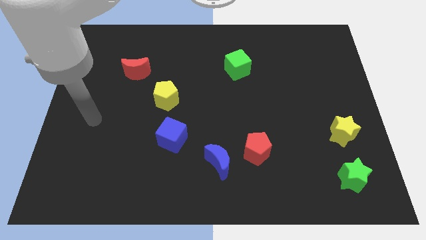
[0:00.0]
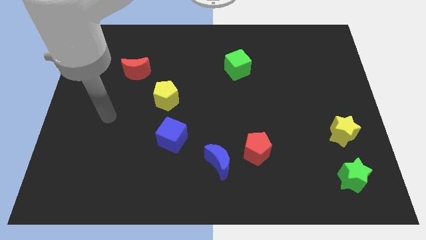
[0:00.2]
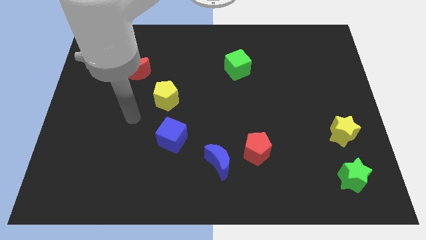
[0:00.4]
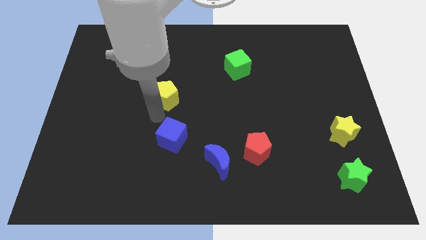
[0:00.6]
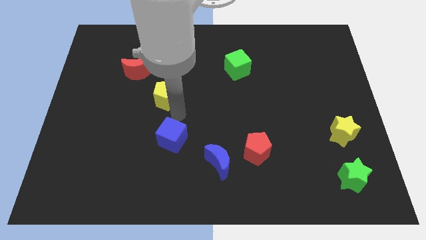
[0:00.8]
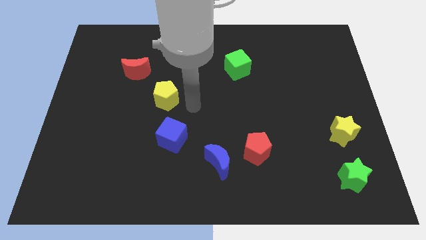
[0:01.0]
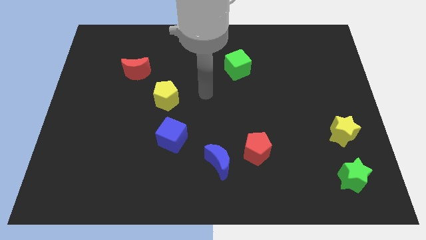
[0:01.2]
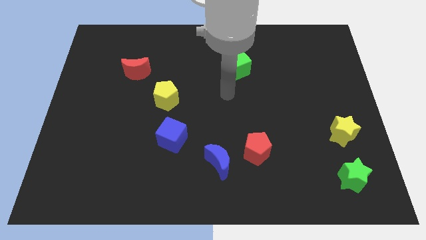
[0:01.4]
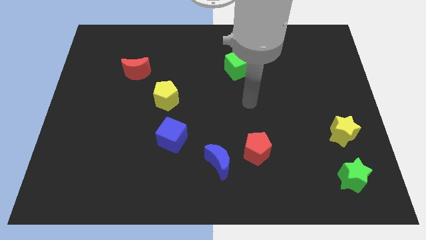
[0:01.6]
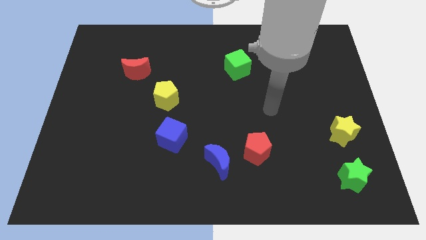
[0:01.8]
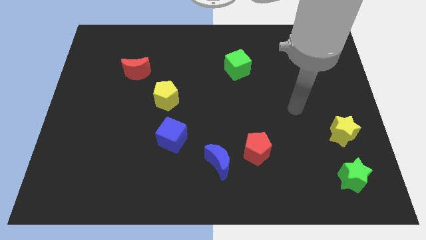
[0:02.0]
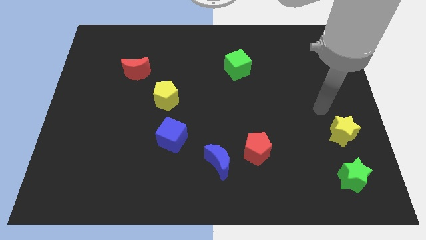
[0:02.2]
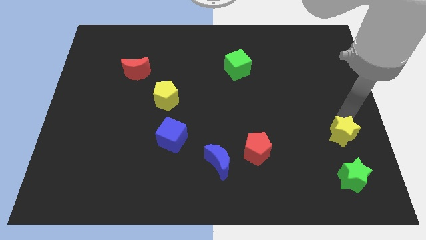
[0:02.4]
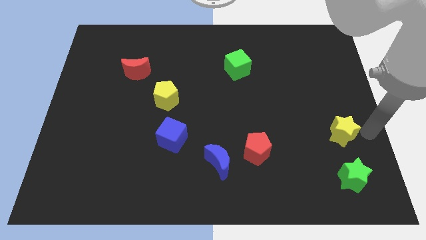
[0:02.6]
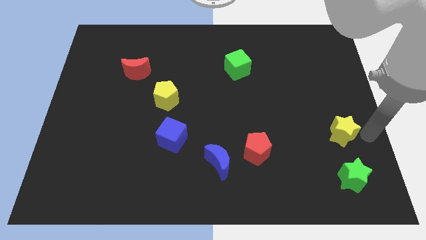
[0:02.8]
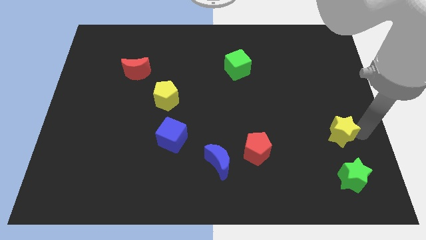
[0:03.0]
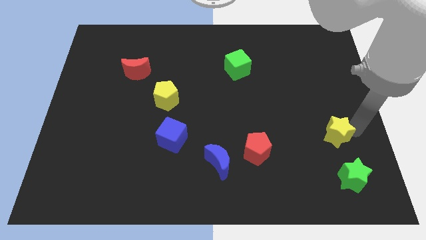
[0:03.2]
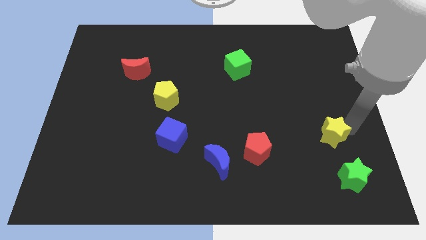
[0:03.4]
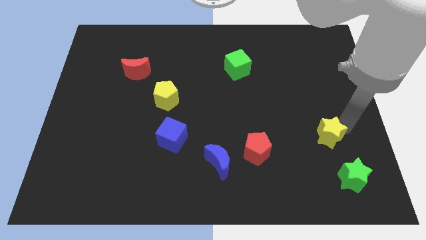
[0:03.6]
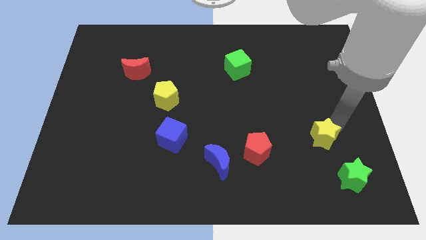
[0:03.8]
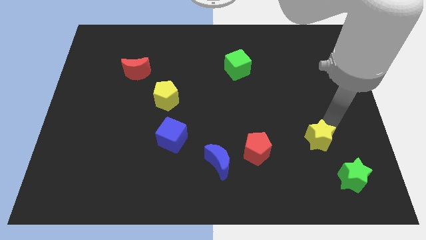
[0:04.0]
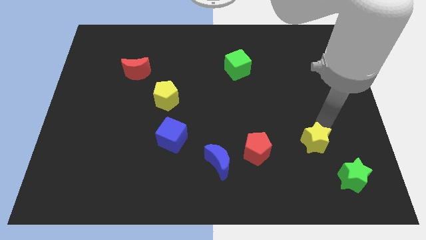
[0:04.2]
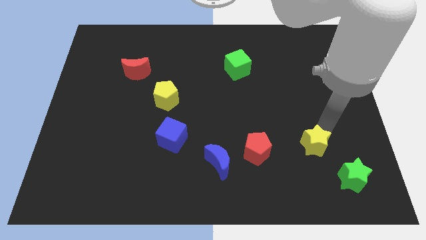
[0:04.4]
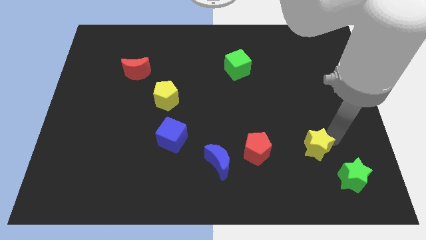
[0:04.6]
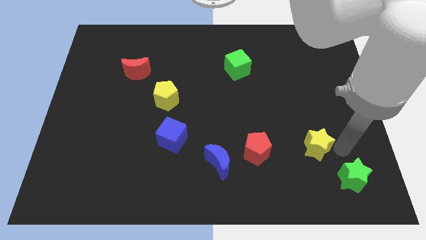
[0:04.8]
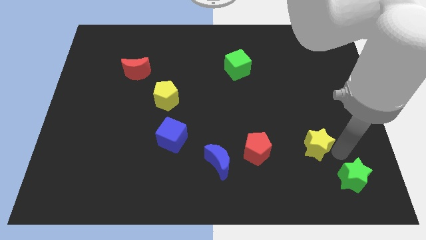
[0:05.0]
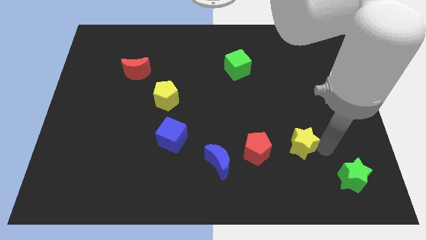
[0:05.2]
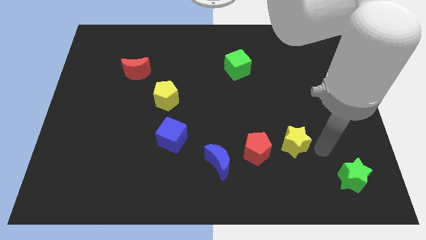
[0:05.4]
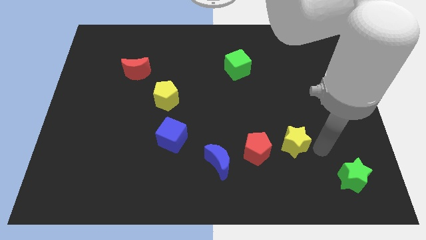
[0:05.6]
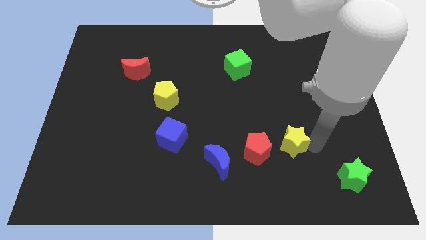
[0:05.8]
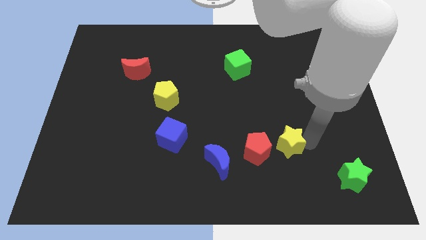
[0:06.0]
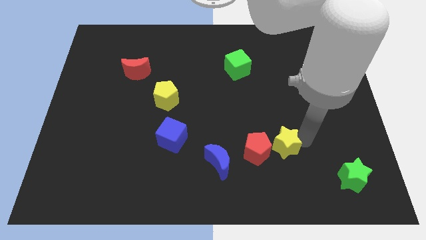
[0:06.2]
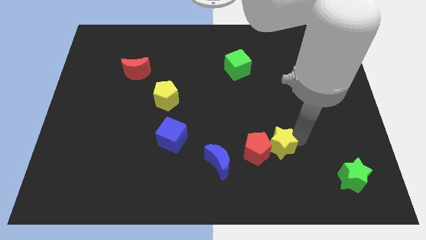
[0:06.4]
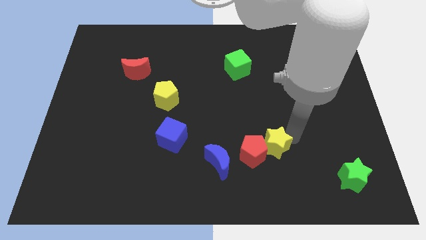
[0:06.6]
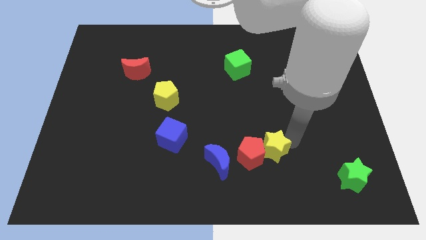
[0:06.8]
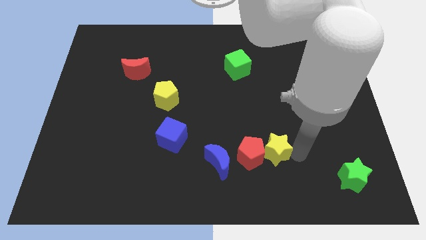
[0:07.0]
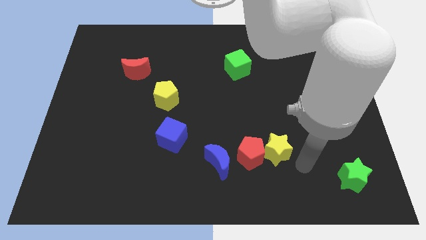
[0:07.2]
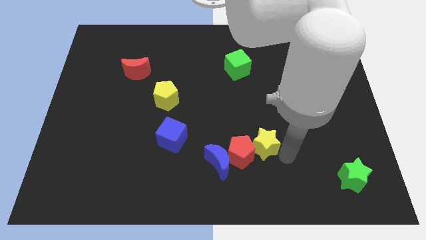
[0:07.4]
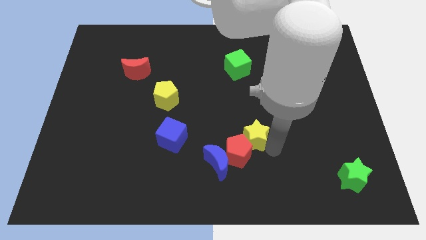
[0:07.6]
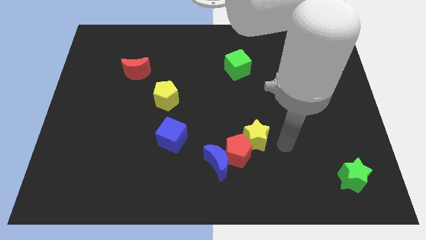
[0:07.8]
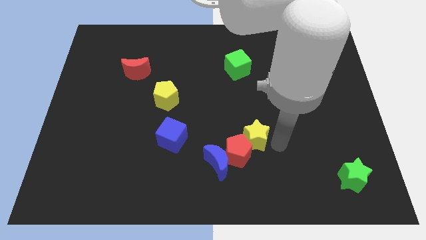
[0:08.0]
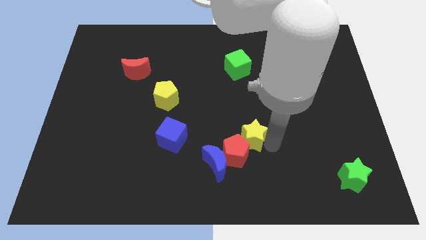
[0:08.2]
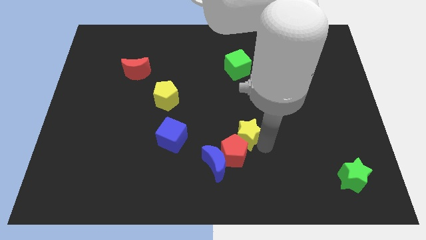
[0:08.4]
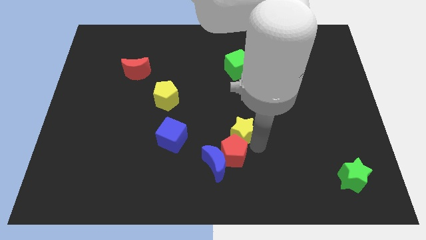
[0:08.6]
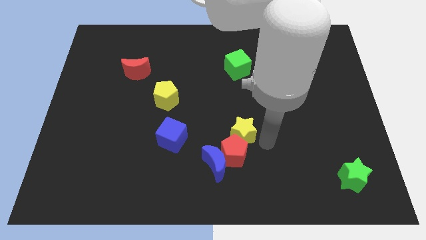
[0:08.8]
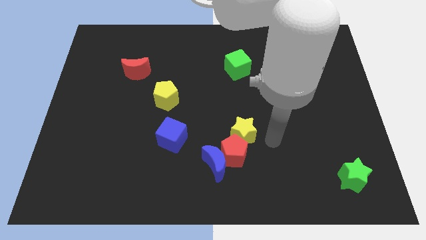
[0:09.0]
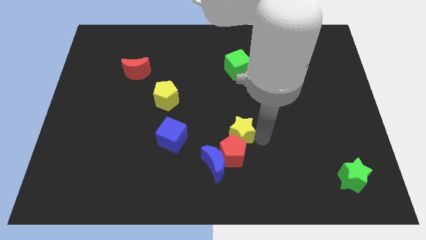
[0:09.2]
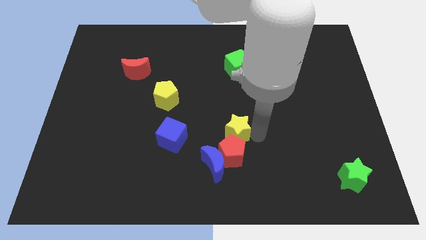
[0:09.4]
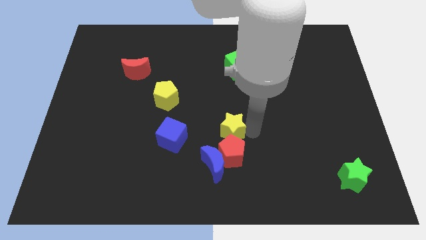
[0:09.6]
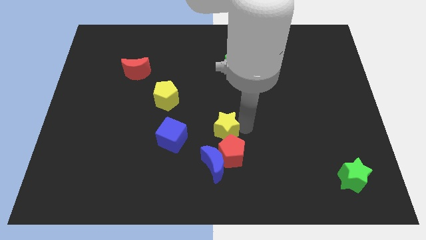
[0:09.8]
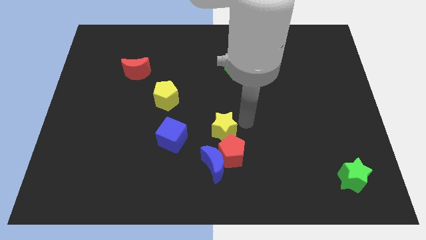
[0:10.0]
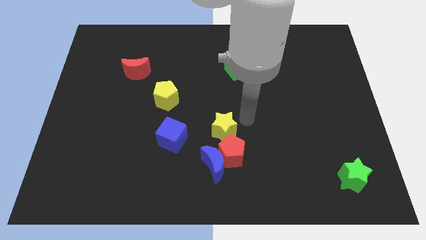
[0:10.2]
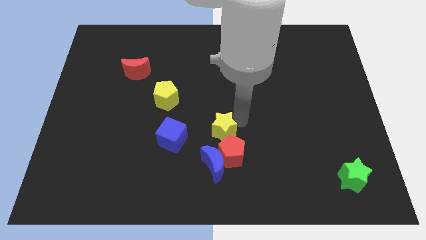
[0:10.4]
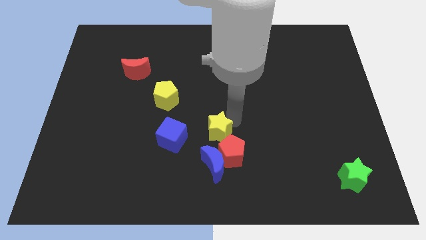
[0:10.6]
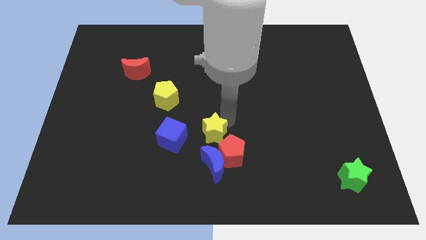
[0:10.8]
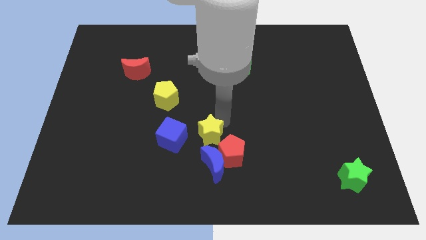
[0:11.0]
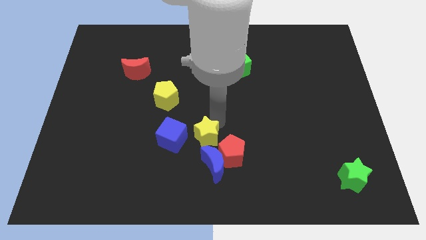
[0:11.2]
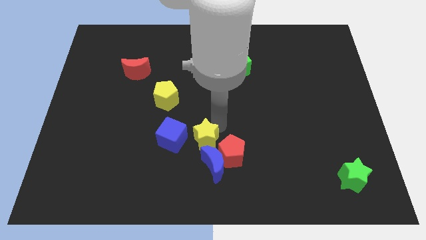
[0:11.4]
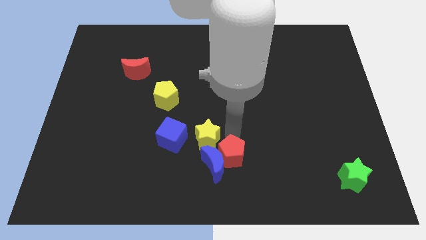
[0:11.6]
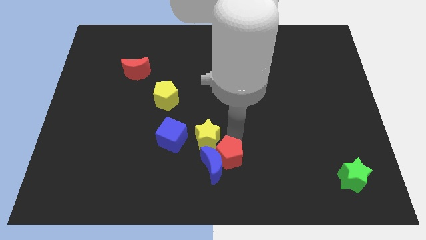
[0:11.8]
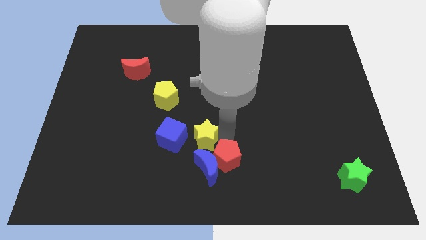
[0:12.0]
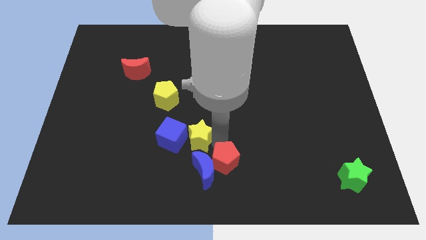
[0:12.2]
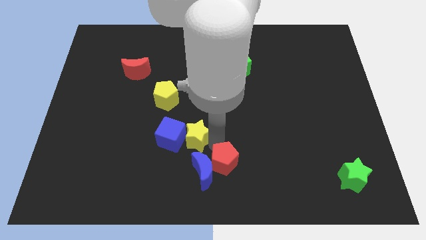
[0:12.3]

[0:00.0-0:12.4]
slide the yellow star towards the blue cube

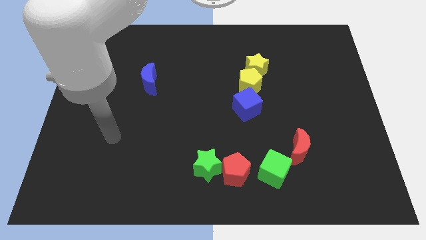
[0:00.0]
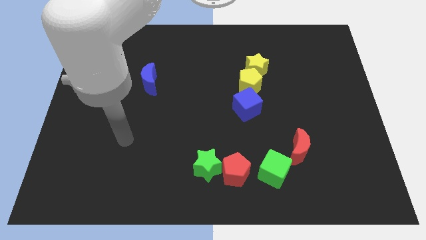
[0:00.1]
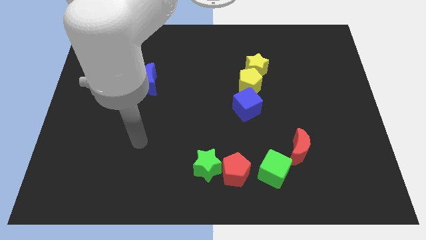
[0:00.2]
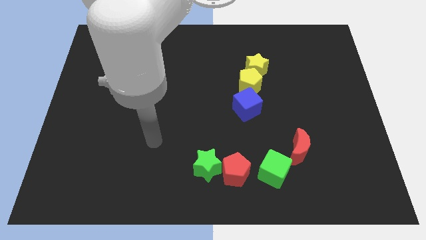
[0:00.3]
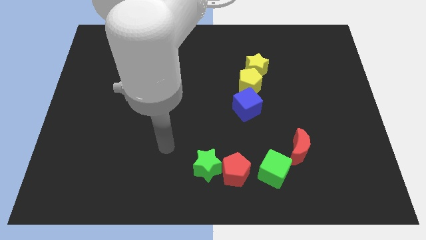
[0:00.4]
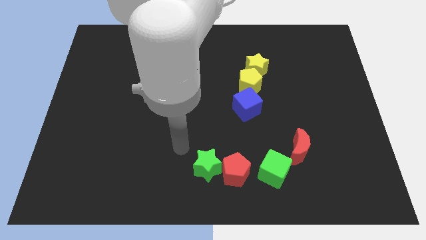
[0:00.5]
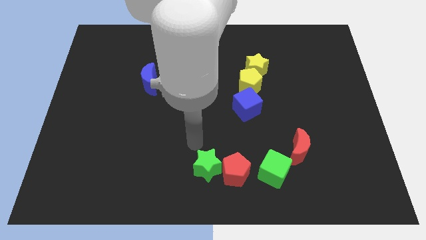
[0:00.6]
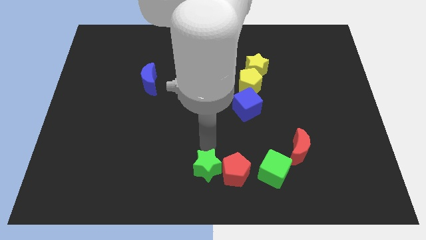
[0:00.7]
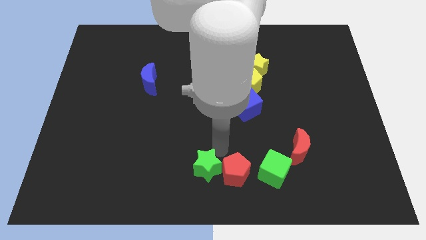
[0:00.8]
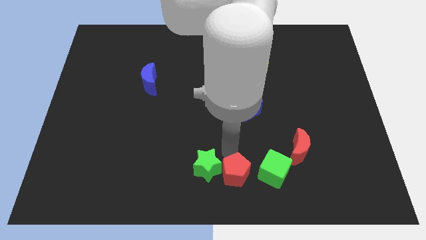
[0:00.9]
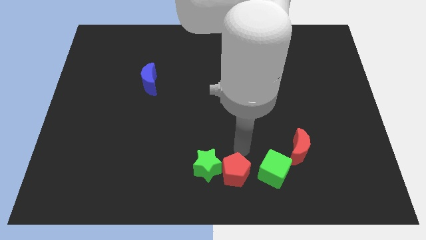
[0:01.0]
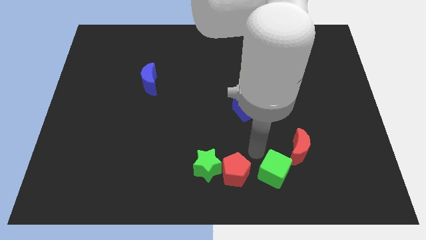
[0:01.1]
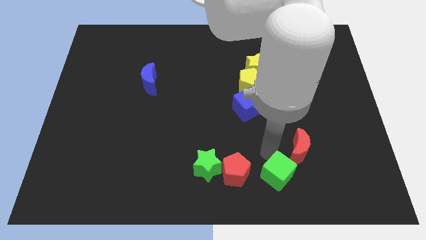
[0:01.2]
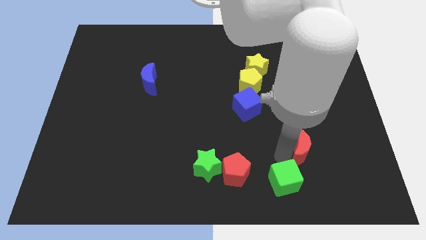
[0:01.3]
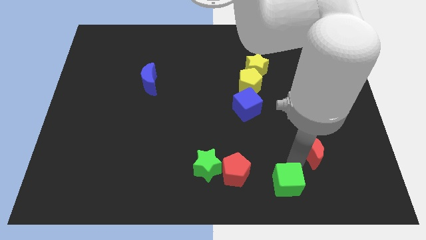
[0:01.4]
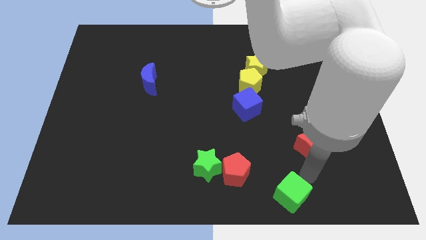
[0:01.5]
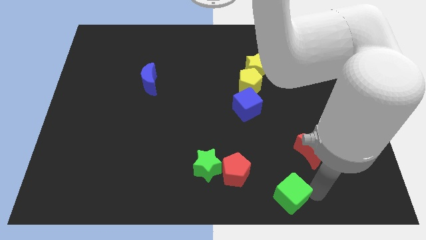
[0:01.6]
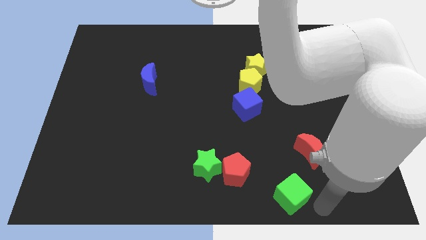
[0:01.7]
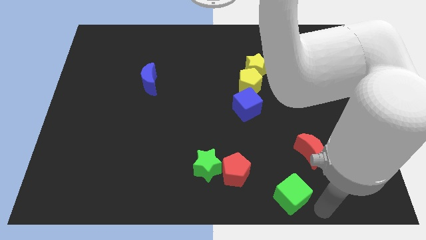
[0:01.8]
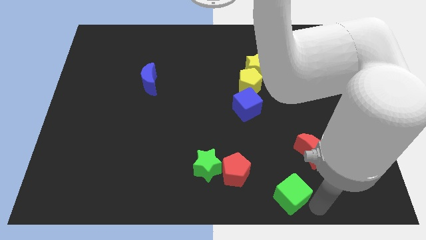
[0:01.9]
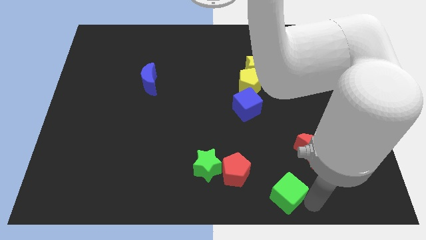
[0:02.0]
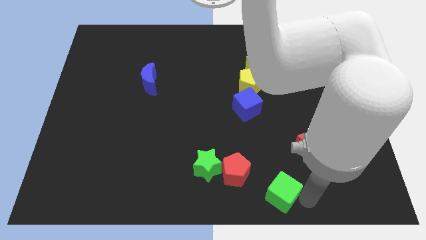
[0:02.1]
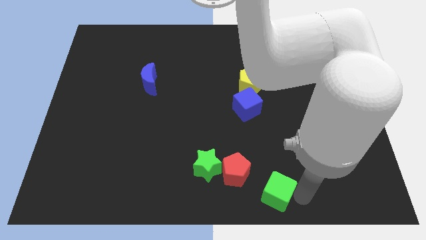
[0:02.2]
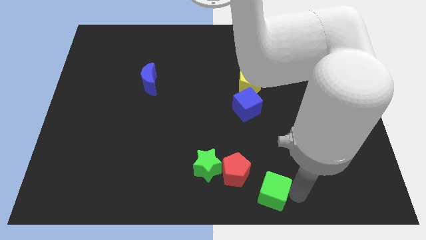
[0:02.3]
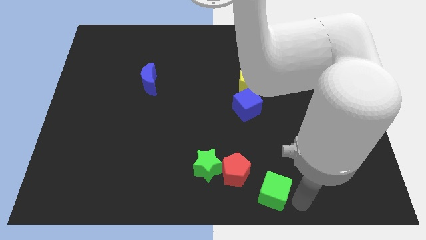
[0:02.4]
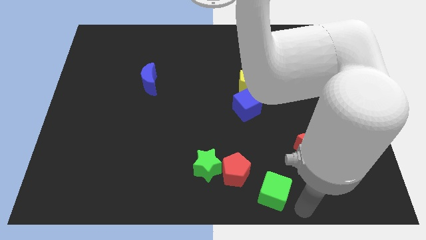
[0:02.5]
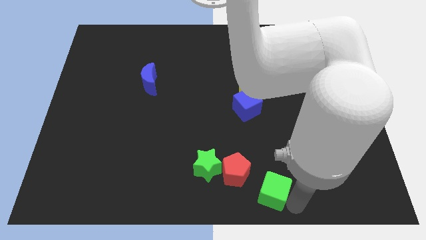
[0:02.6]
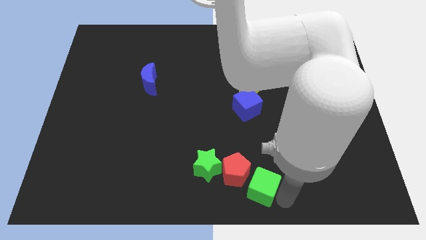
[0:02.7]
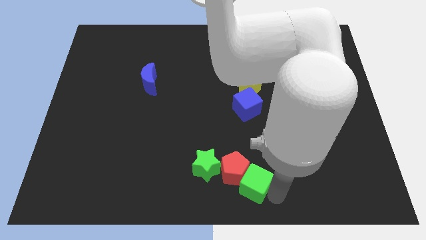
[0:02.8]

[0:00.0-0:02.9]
slide the green cube towards the red pentagon
